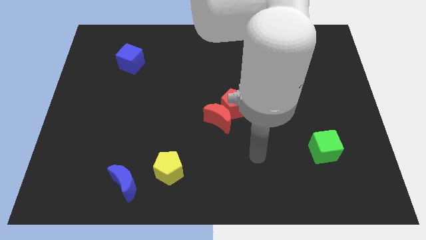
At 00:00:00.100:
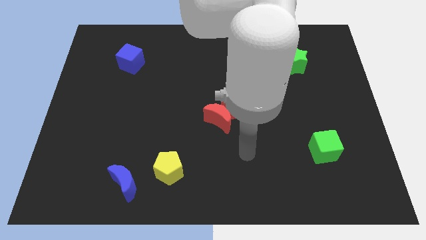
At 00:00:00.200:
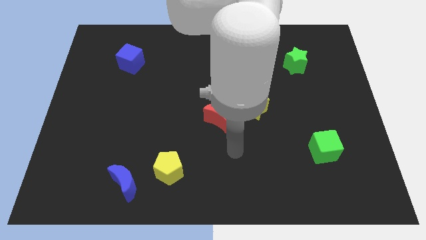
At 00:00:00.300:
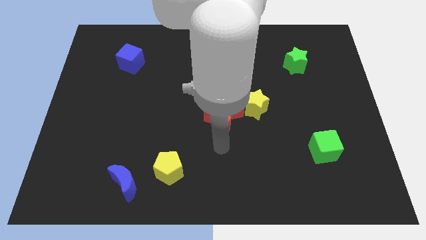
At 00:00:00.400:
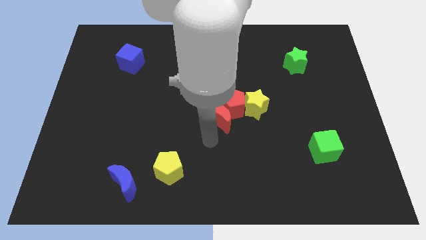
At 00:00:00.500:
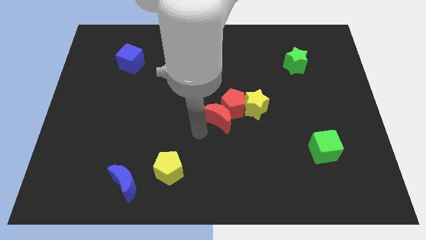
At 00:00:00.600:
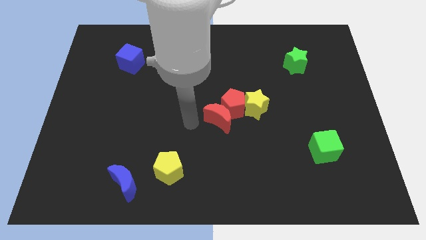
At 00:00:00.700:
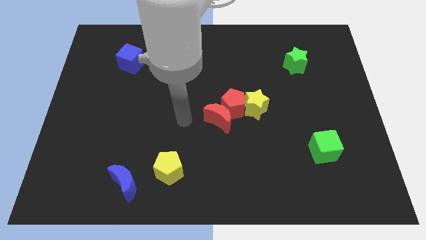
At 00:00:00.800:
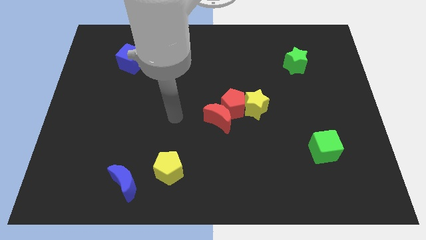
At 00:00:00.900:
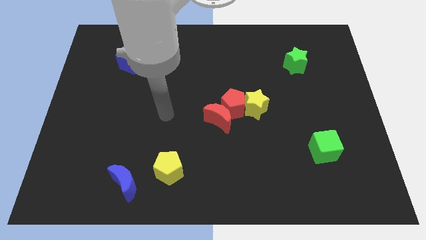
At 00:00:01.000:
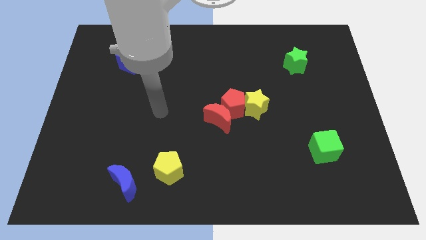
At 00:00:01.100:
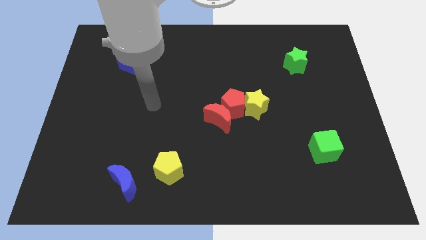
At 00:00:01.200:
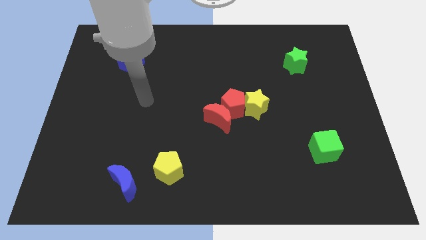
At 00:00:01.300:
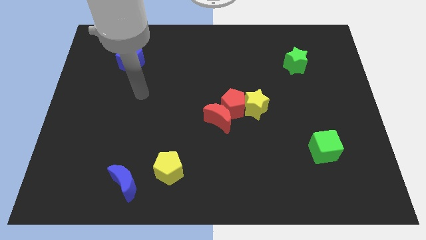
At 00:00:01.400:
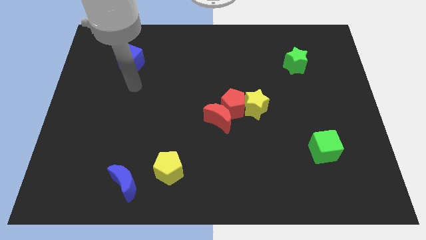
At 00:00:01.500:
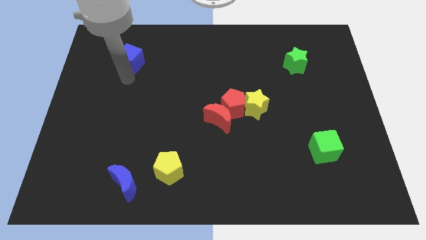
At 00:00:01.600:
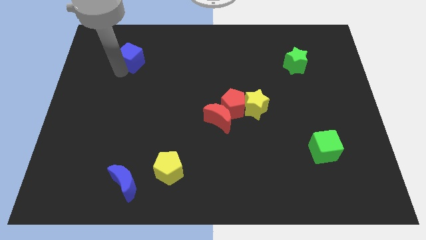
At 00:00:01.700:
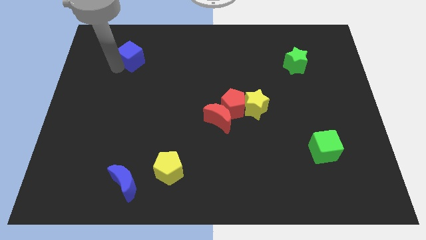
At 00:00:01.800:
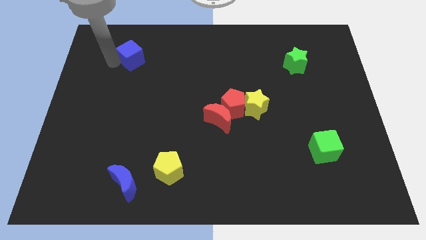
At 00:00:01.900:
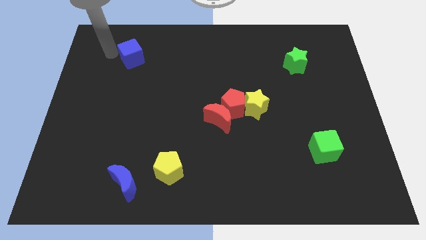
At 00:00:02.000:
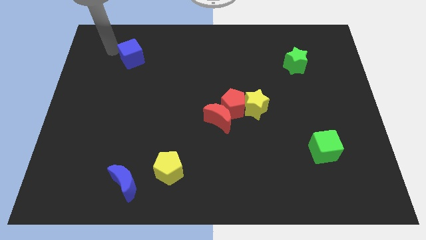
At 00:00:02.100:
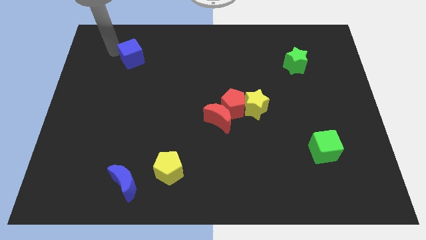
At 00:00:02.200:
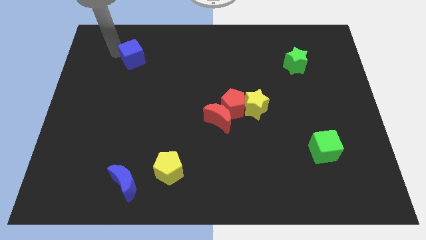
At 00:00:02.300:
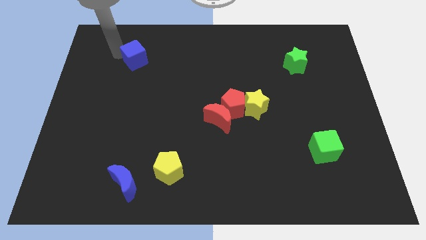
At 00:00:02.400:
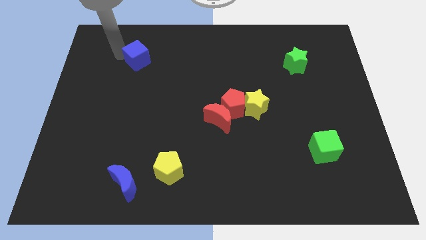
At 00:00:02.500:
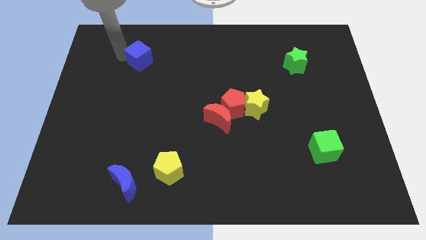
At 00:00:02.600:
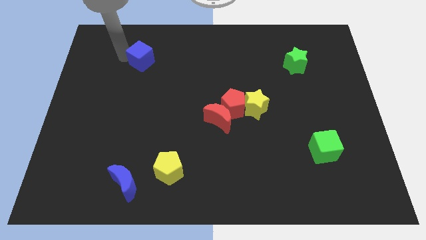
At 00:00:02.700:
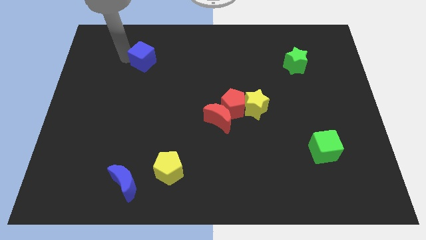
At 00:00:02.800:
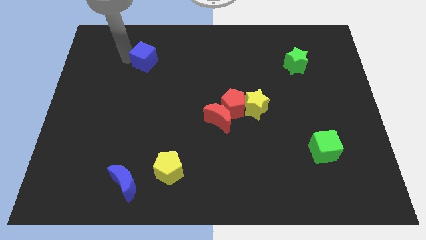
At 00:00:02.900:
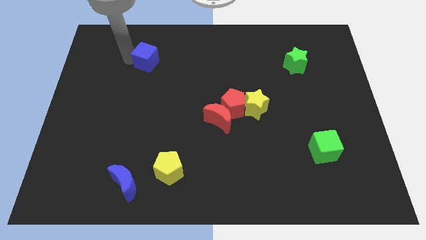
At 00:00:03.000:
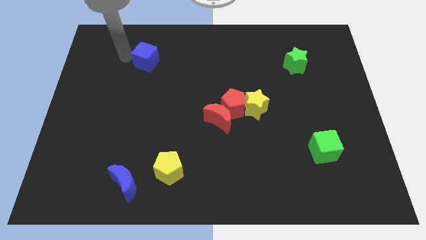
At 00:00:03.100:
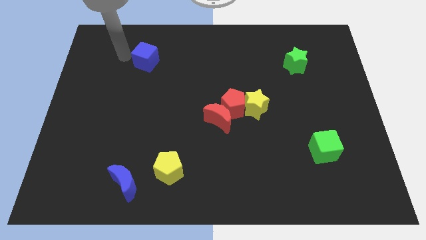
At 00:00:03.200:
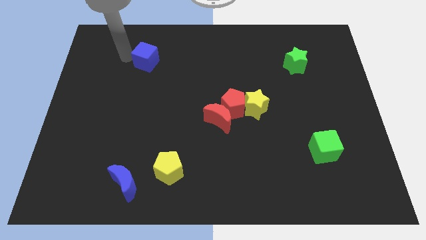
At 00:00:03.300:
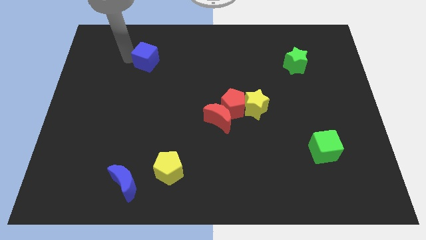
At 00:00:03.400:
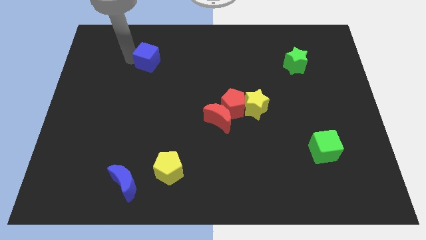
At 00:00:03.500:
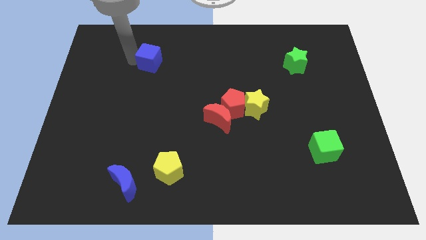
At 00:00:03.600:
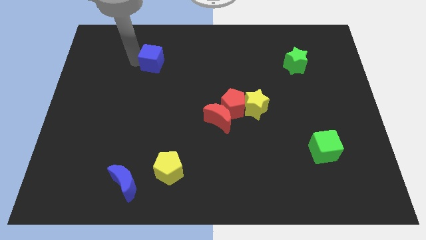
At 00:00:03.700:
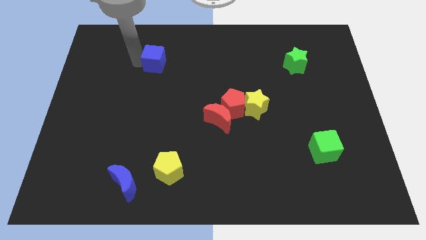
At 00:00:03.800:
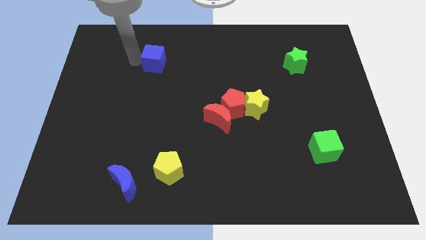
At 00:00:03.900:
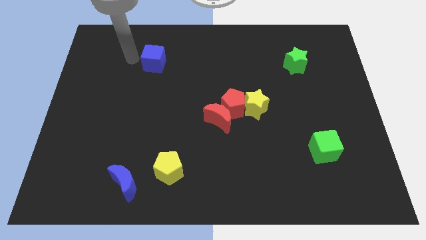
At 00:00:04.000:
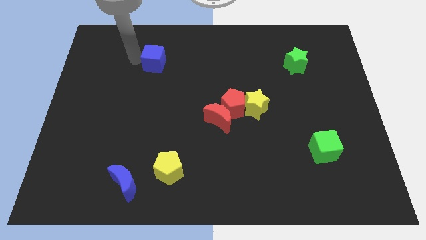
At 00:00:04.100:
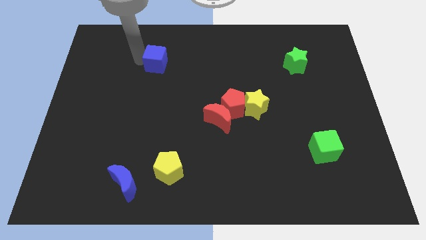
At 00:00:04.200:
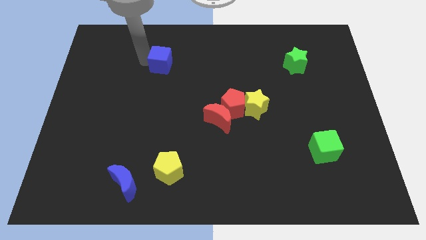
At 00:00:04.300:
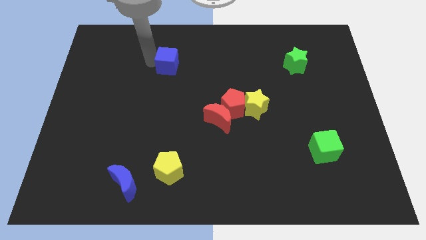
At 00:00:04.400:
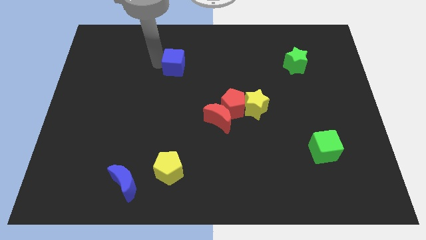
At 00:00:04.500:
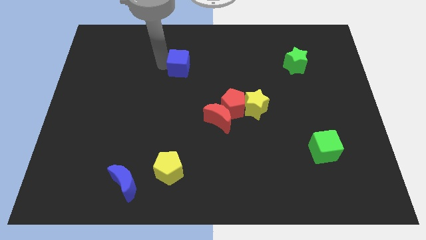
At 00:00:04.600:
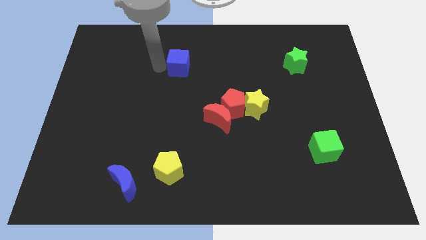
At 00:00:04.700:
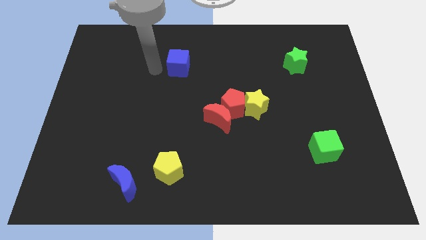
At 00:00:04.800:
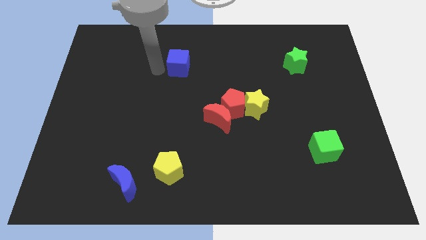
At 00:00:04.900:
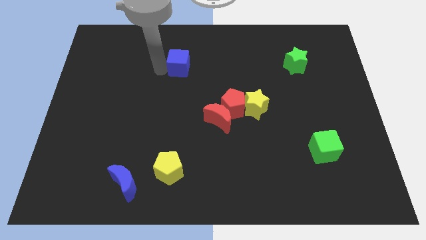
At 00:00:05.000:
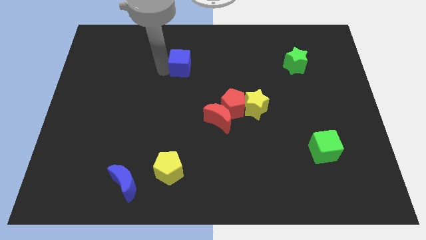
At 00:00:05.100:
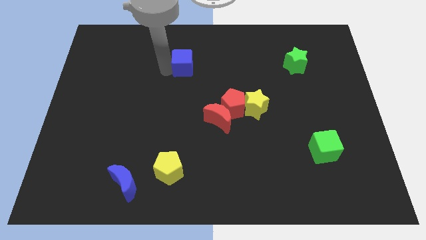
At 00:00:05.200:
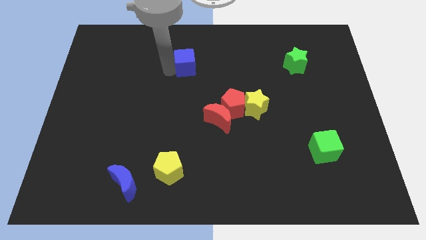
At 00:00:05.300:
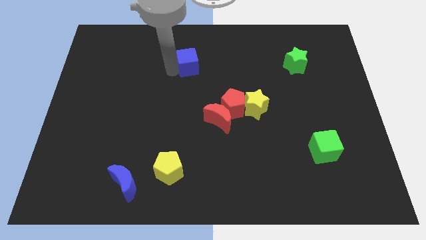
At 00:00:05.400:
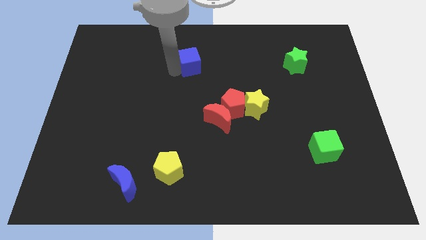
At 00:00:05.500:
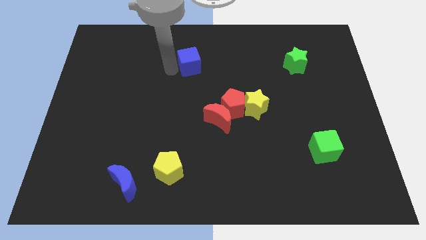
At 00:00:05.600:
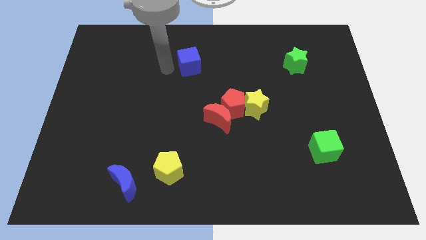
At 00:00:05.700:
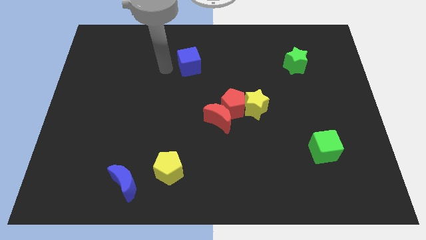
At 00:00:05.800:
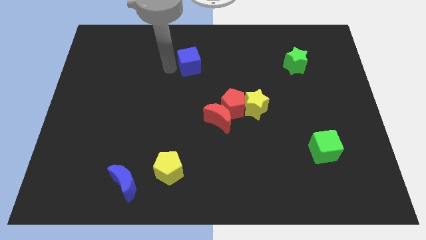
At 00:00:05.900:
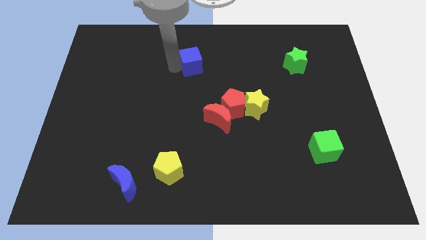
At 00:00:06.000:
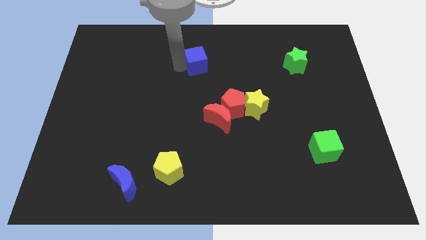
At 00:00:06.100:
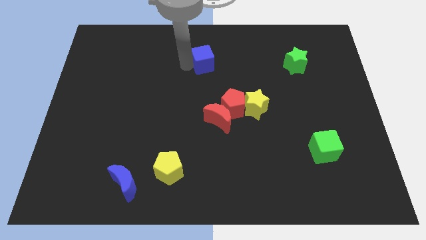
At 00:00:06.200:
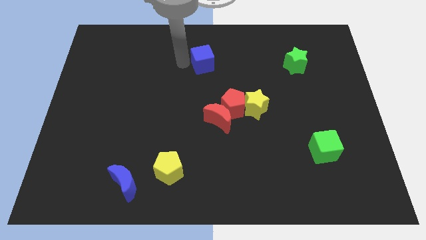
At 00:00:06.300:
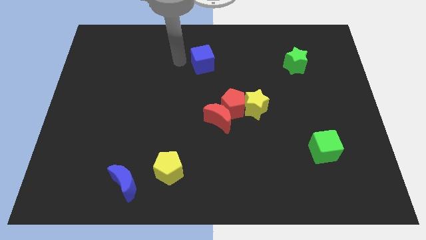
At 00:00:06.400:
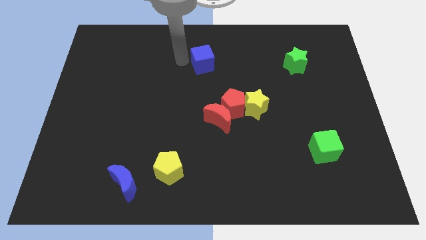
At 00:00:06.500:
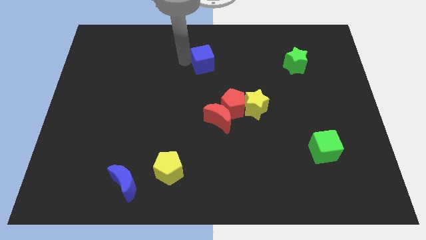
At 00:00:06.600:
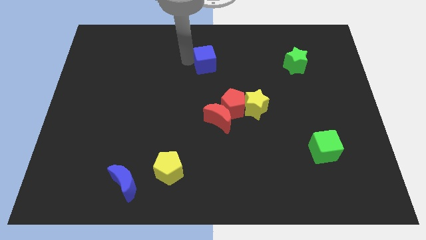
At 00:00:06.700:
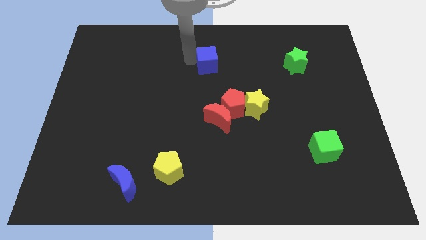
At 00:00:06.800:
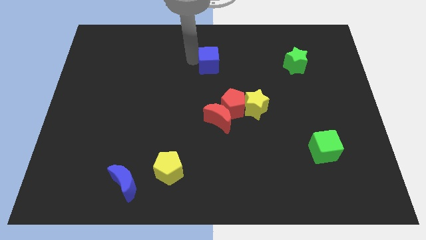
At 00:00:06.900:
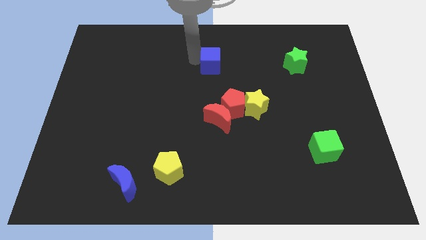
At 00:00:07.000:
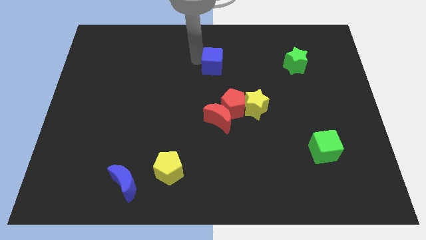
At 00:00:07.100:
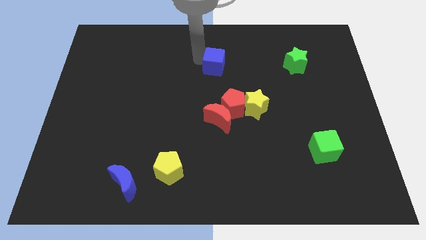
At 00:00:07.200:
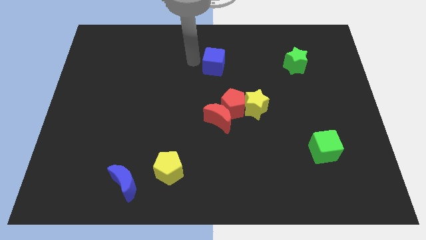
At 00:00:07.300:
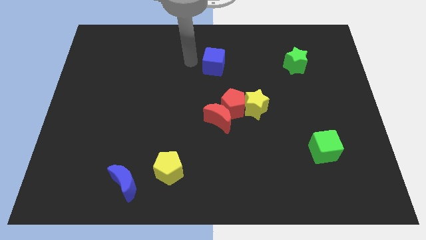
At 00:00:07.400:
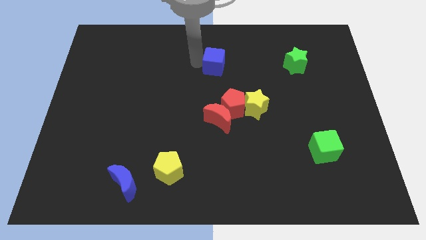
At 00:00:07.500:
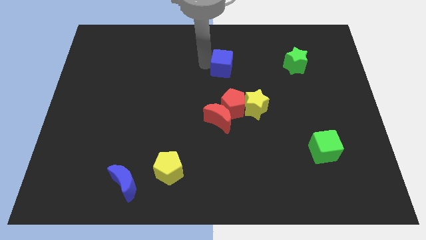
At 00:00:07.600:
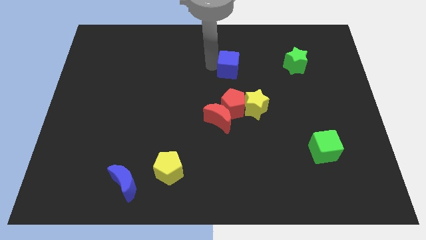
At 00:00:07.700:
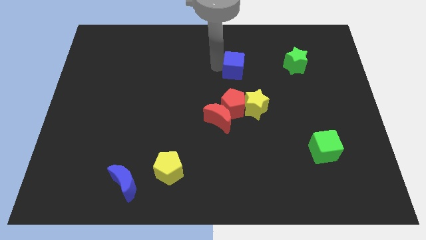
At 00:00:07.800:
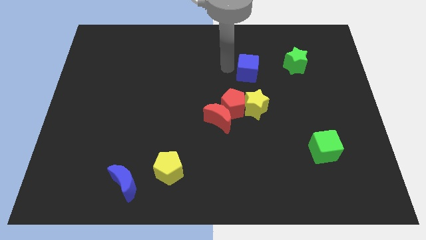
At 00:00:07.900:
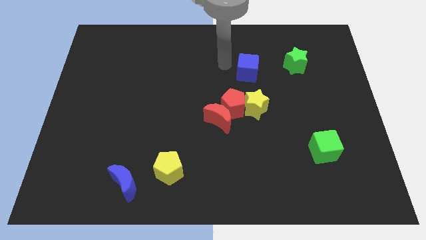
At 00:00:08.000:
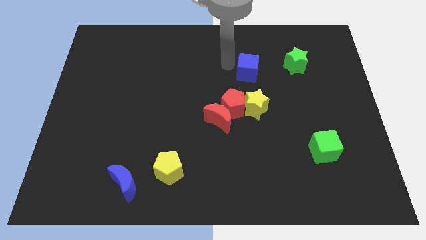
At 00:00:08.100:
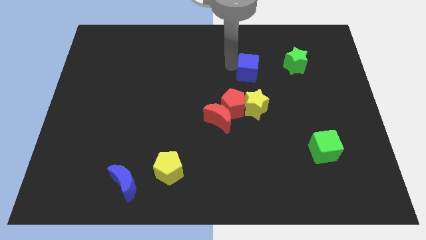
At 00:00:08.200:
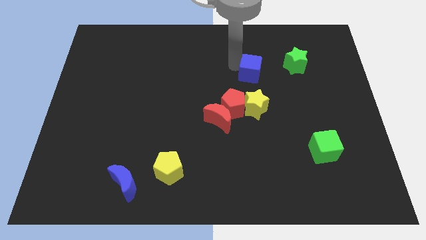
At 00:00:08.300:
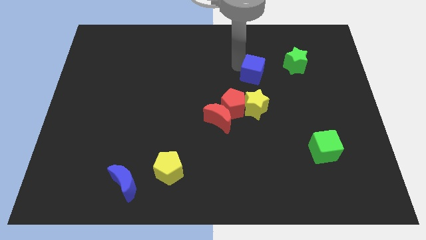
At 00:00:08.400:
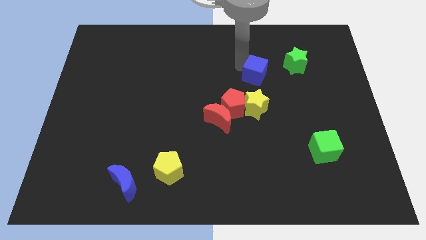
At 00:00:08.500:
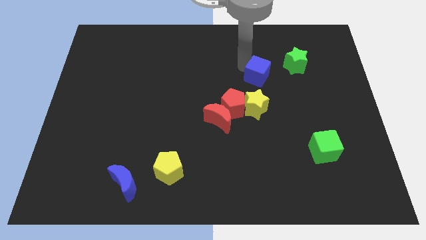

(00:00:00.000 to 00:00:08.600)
put the blue cube to the bottom left side of the green star
